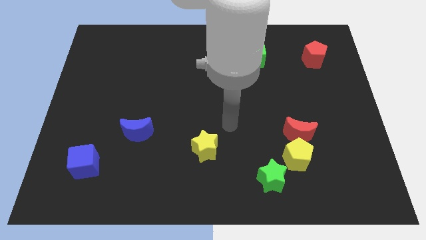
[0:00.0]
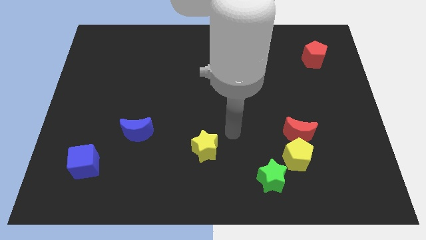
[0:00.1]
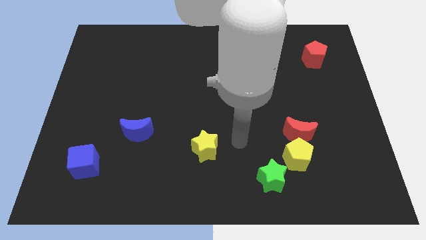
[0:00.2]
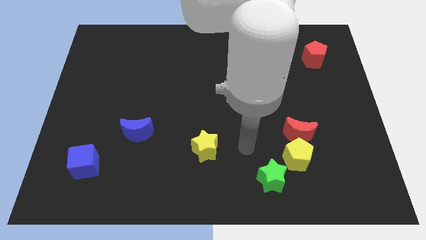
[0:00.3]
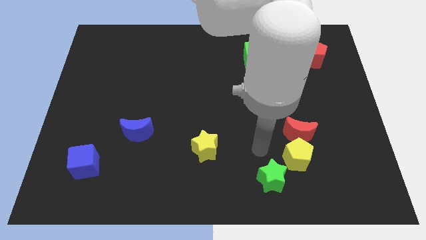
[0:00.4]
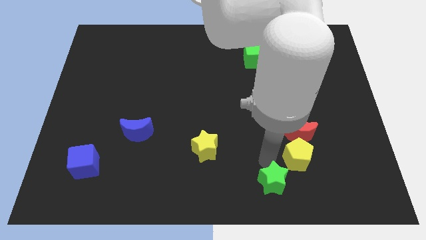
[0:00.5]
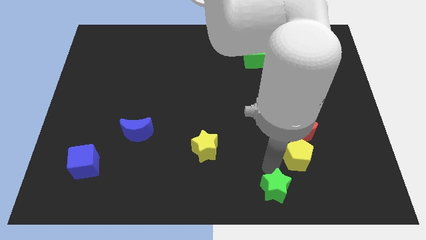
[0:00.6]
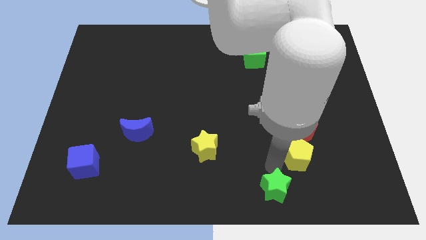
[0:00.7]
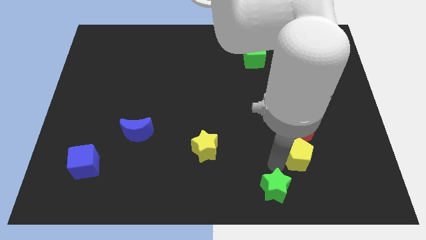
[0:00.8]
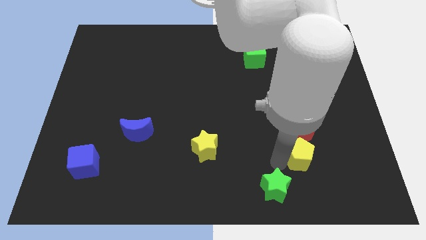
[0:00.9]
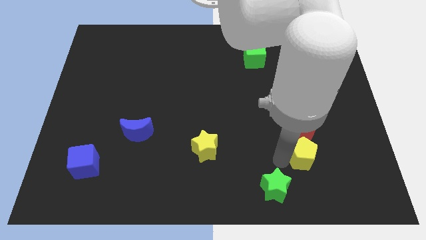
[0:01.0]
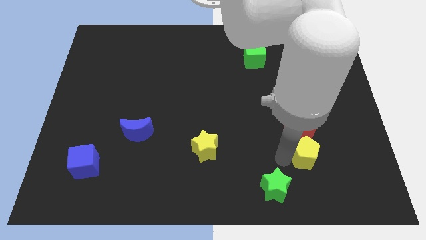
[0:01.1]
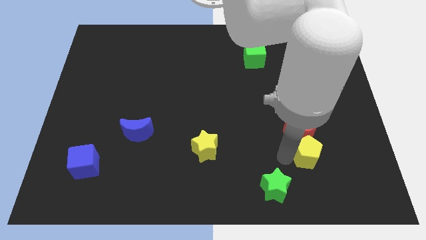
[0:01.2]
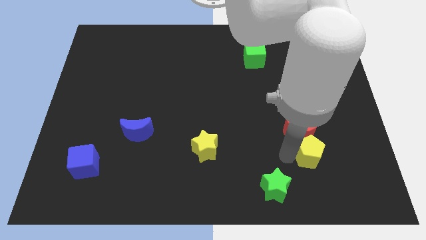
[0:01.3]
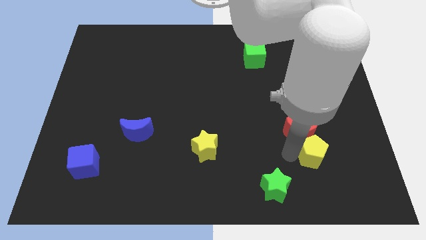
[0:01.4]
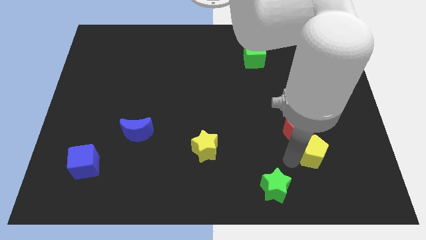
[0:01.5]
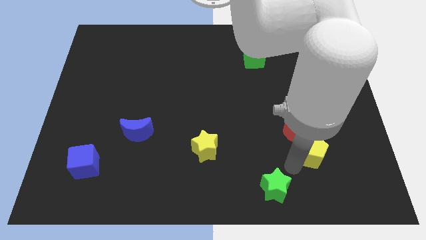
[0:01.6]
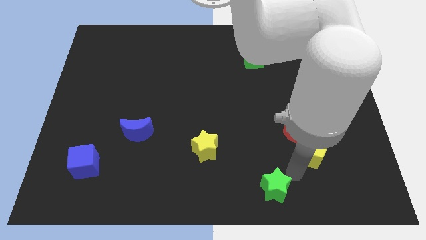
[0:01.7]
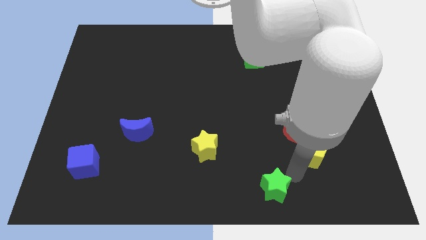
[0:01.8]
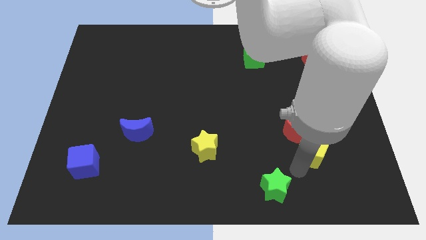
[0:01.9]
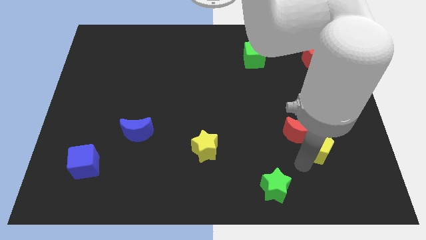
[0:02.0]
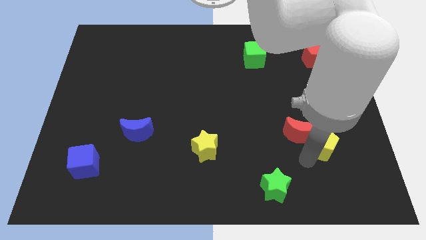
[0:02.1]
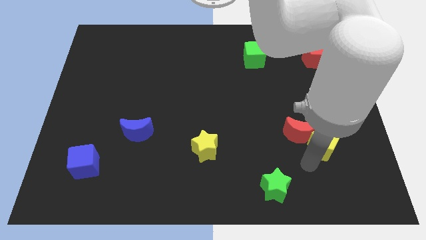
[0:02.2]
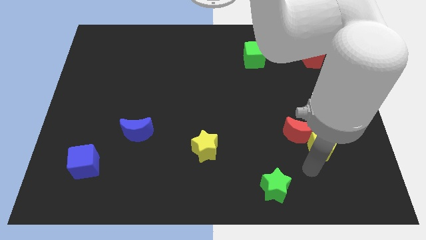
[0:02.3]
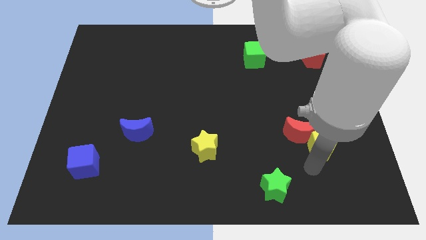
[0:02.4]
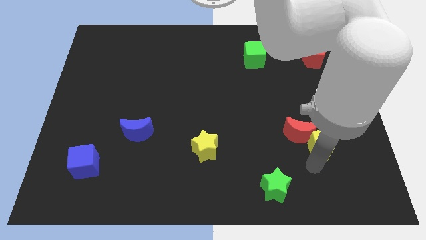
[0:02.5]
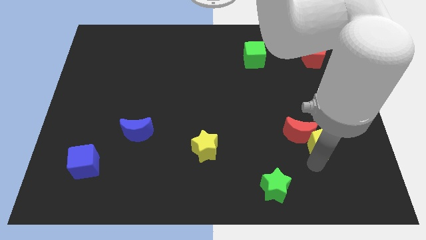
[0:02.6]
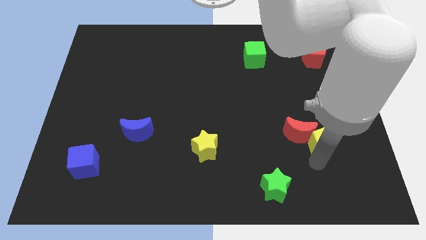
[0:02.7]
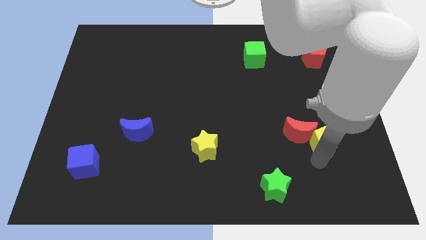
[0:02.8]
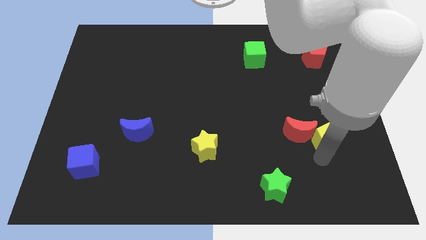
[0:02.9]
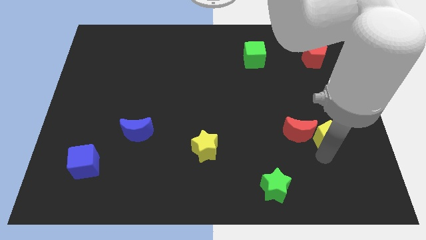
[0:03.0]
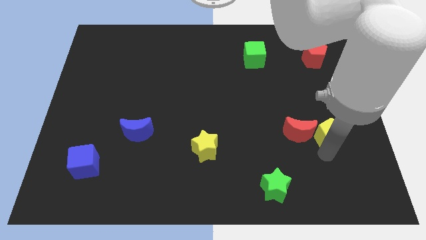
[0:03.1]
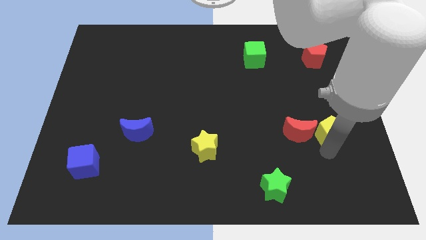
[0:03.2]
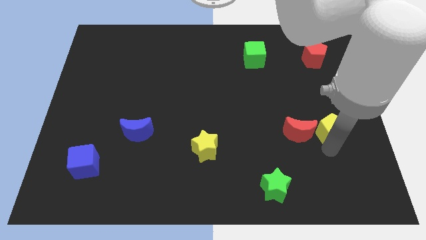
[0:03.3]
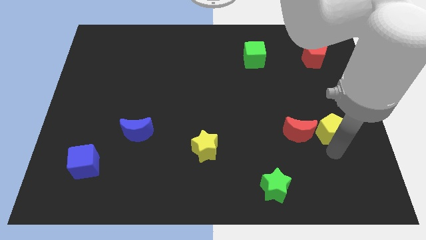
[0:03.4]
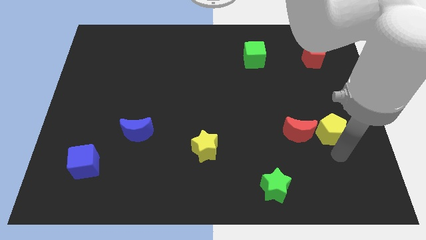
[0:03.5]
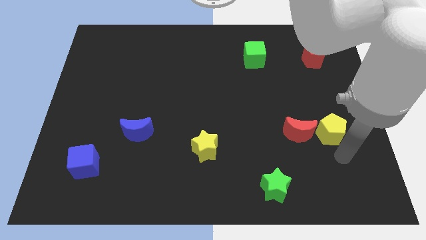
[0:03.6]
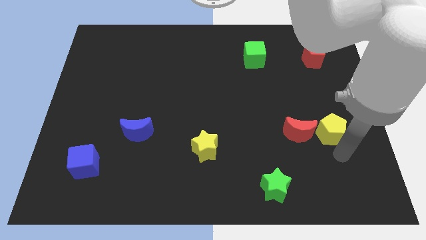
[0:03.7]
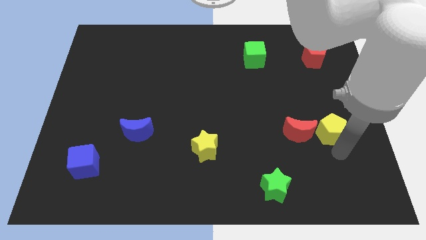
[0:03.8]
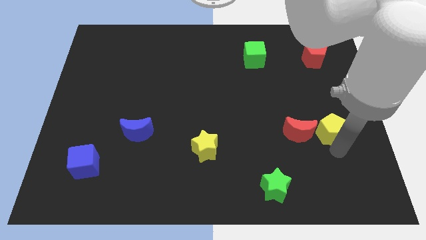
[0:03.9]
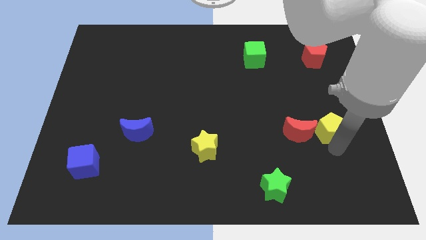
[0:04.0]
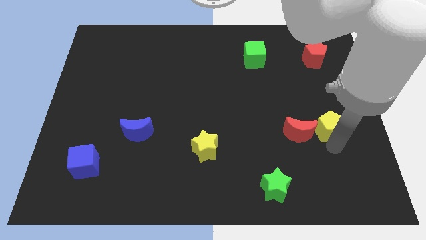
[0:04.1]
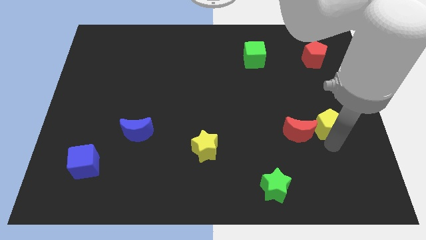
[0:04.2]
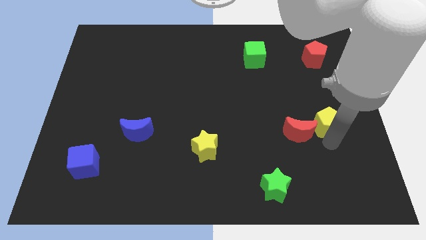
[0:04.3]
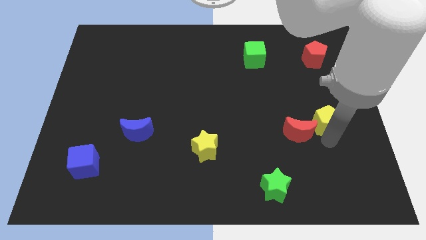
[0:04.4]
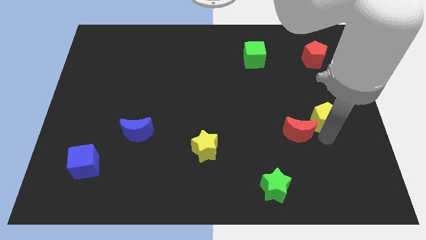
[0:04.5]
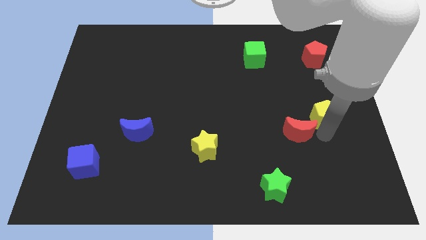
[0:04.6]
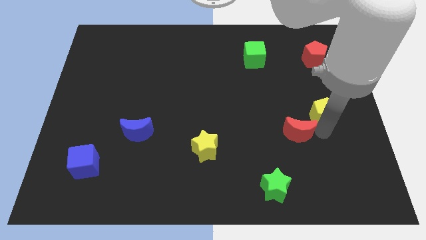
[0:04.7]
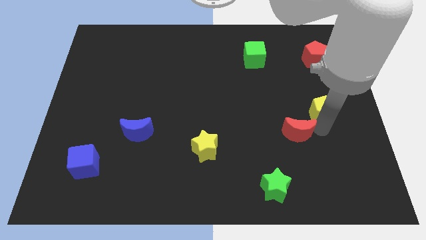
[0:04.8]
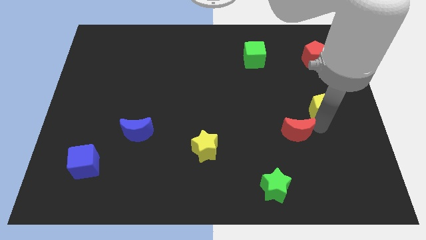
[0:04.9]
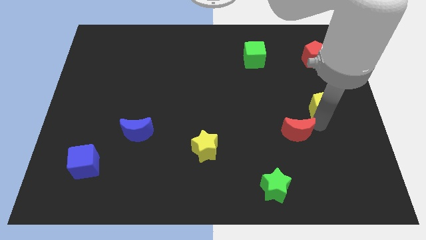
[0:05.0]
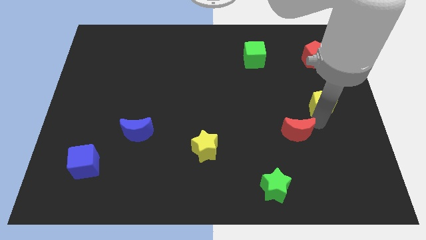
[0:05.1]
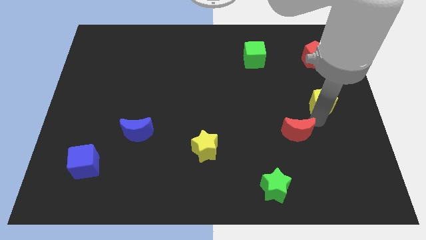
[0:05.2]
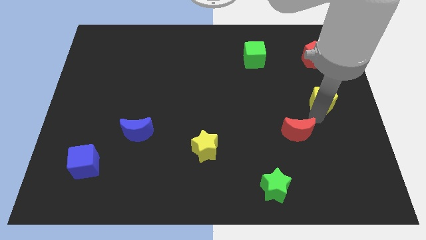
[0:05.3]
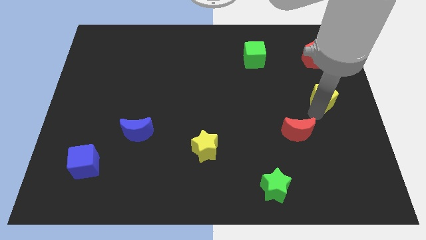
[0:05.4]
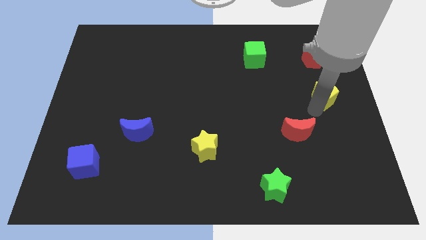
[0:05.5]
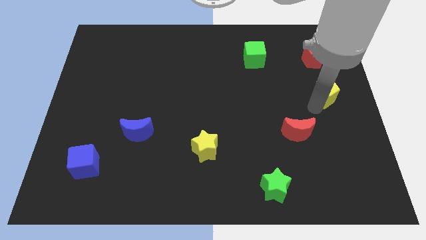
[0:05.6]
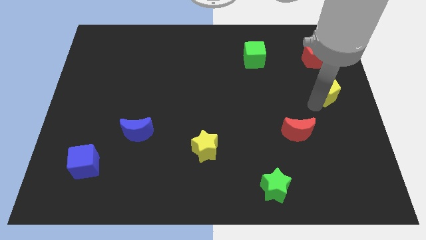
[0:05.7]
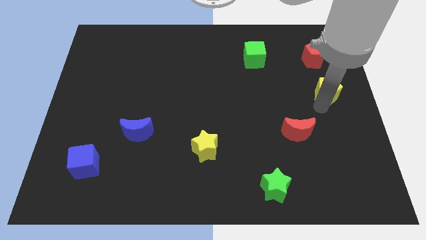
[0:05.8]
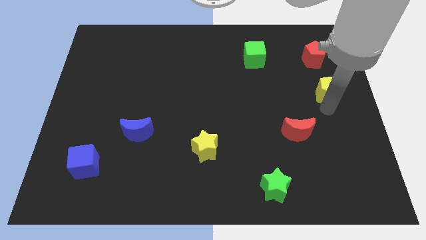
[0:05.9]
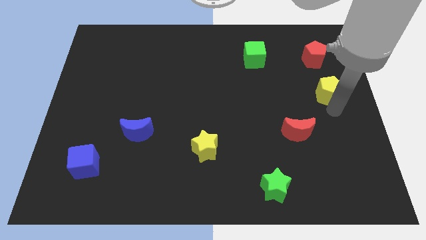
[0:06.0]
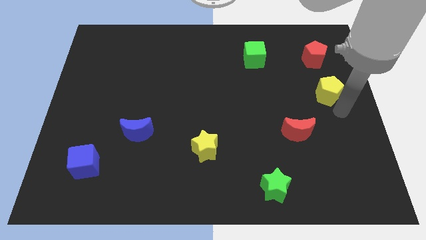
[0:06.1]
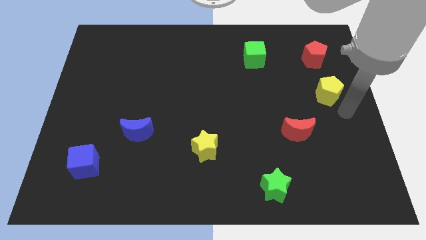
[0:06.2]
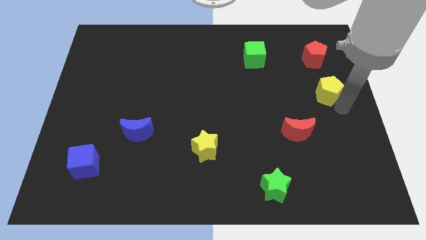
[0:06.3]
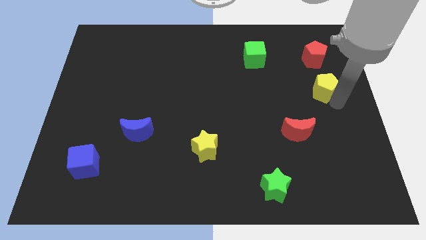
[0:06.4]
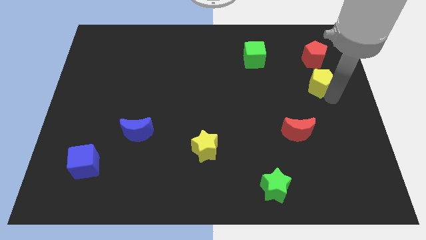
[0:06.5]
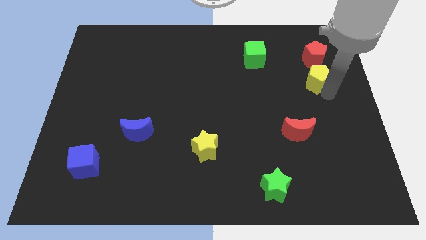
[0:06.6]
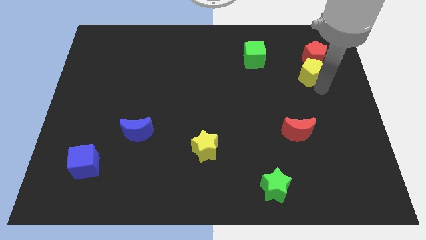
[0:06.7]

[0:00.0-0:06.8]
slide the yellow pentagon to the red pentagon
